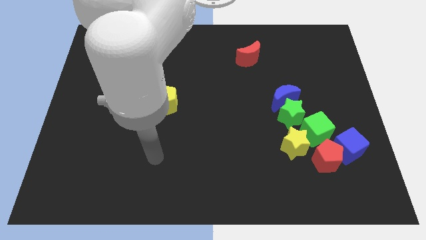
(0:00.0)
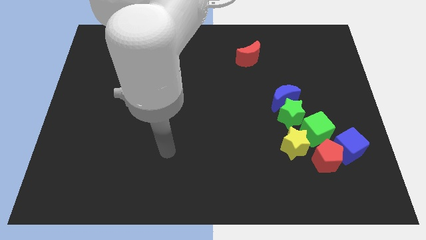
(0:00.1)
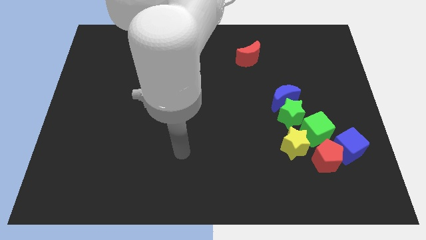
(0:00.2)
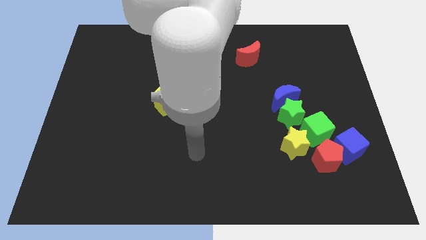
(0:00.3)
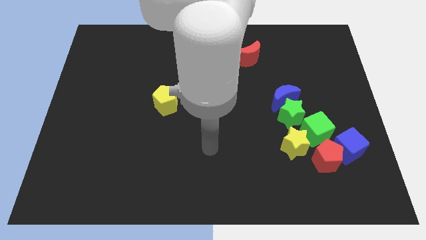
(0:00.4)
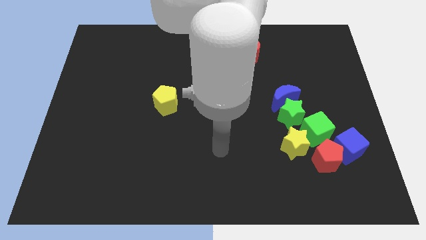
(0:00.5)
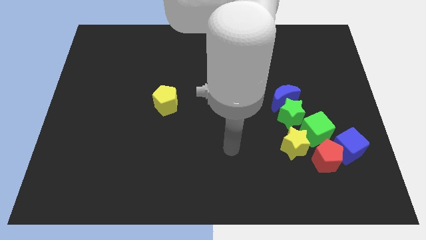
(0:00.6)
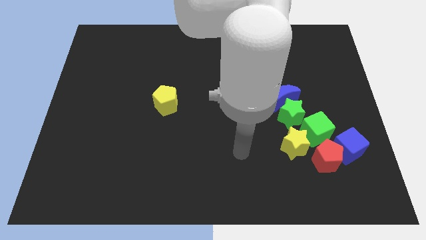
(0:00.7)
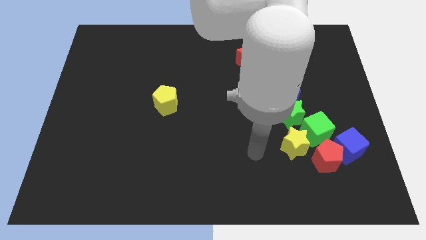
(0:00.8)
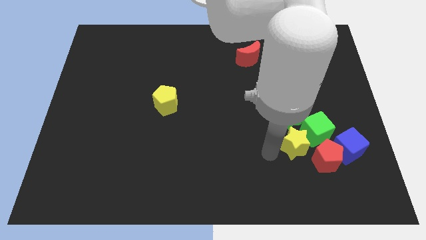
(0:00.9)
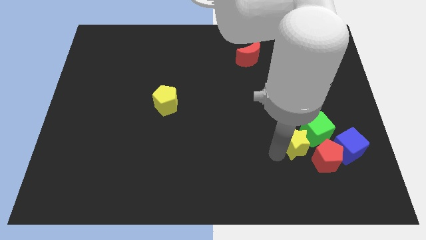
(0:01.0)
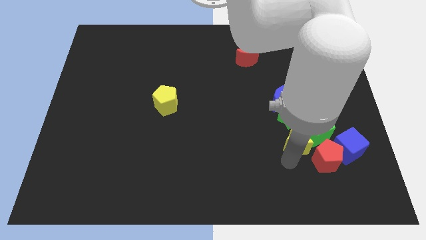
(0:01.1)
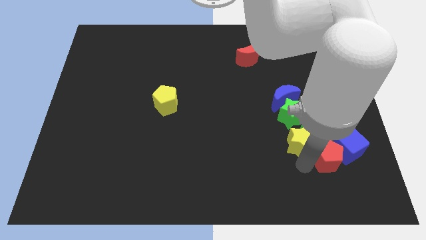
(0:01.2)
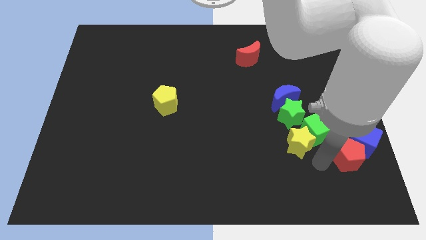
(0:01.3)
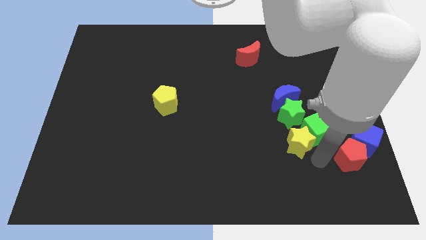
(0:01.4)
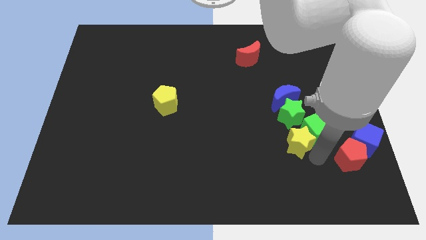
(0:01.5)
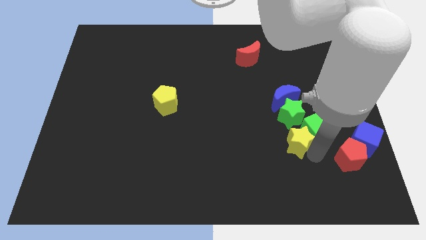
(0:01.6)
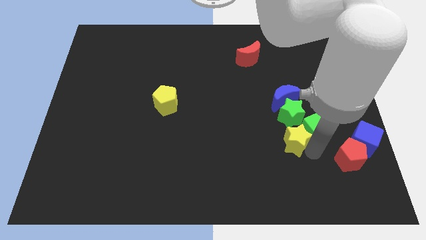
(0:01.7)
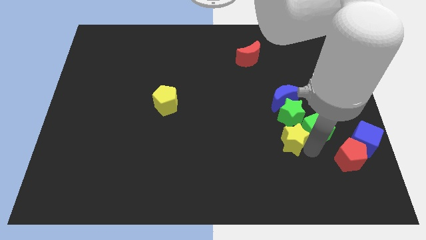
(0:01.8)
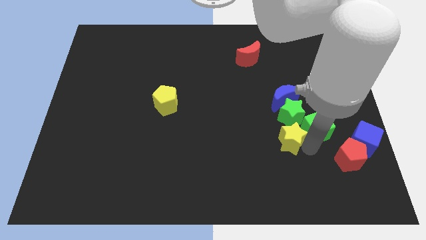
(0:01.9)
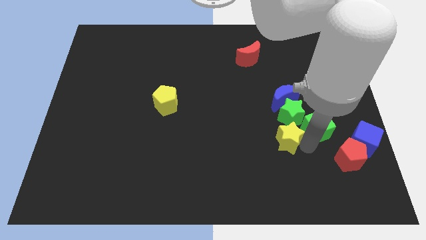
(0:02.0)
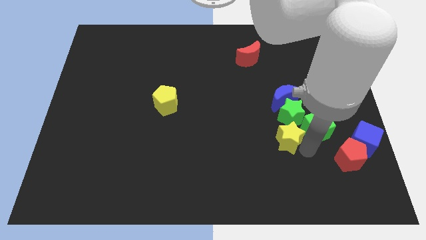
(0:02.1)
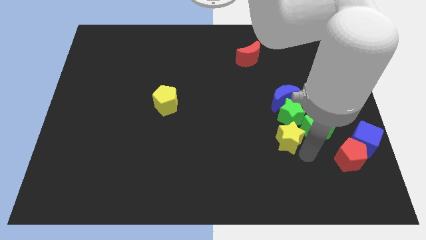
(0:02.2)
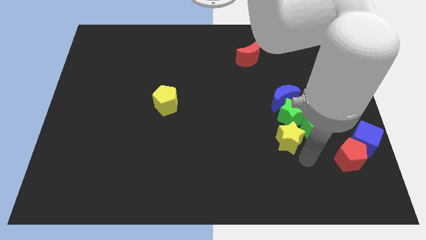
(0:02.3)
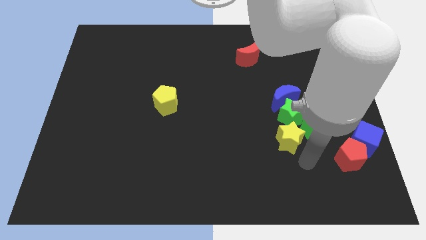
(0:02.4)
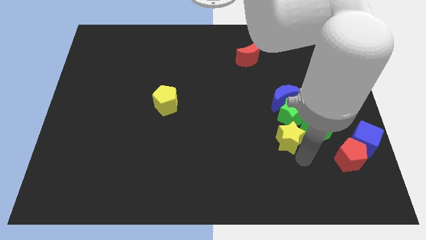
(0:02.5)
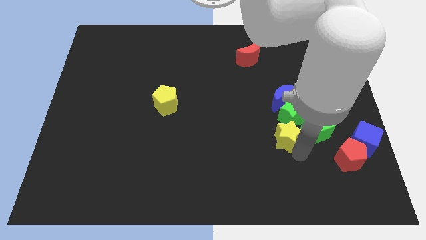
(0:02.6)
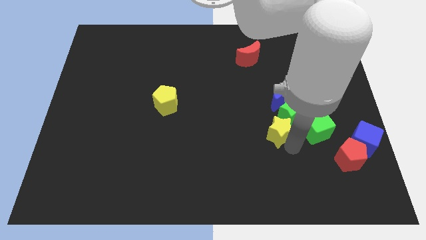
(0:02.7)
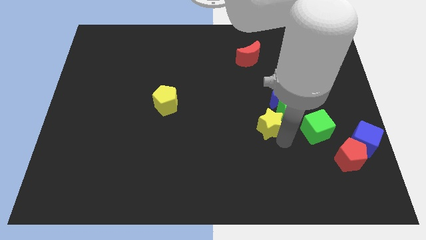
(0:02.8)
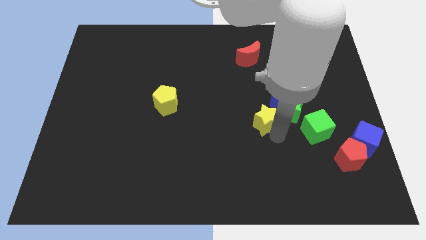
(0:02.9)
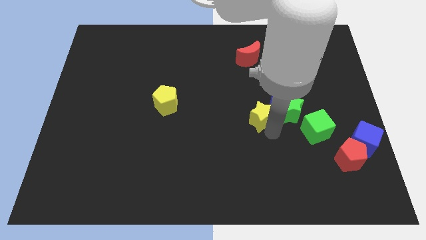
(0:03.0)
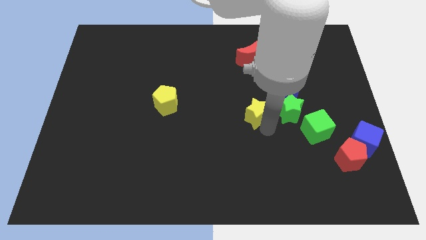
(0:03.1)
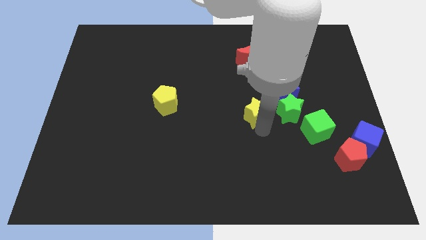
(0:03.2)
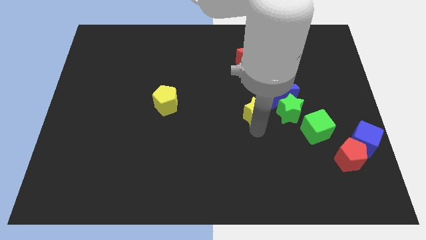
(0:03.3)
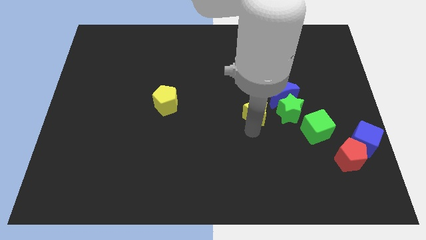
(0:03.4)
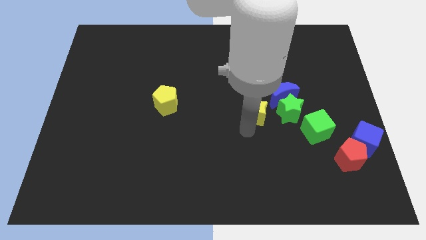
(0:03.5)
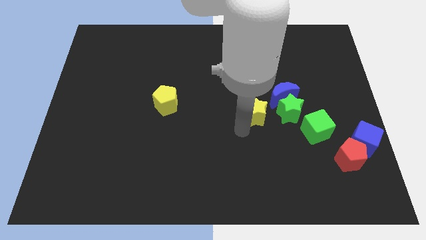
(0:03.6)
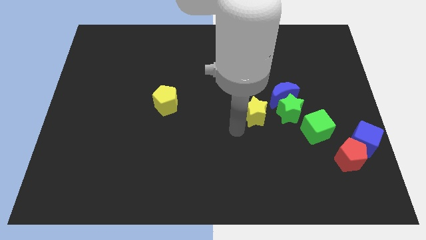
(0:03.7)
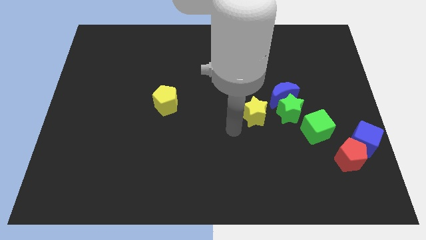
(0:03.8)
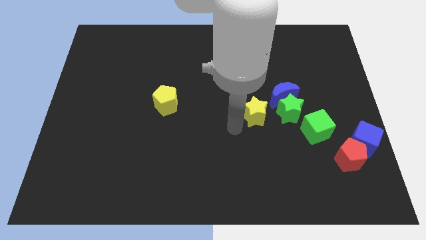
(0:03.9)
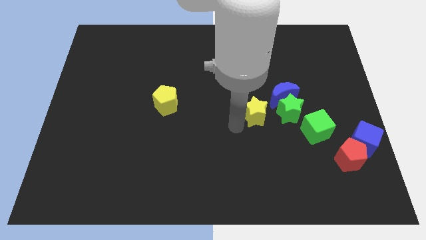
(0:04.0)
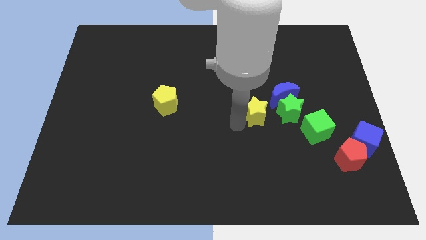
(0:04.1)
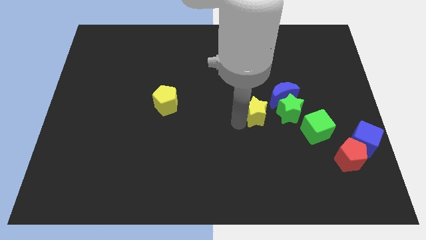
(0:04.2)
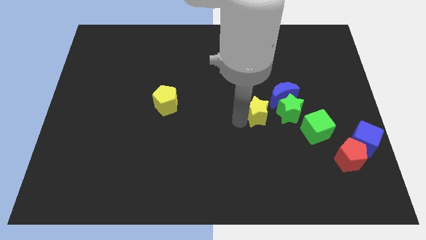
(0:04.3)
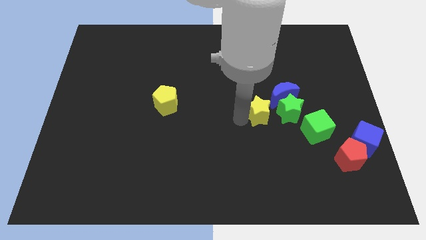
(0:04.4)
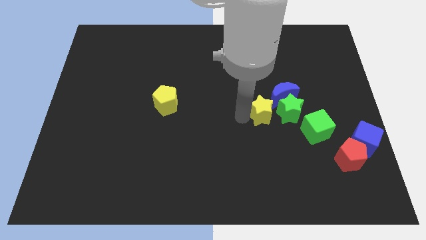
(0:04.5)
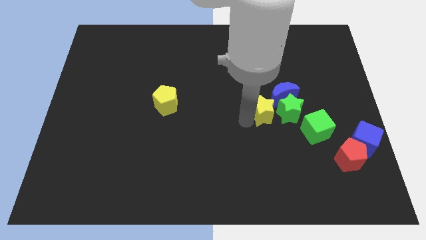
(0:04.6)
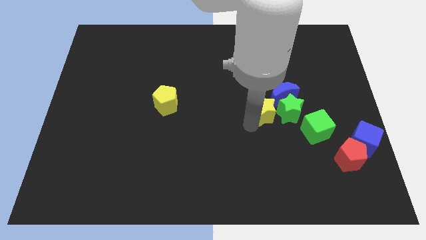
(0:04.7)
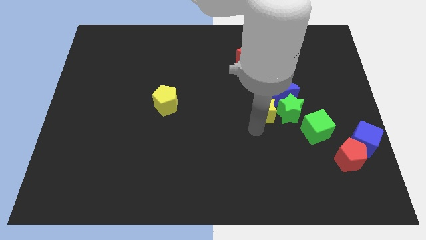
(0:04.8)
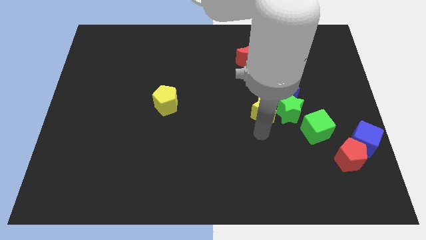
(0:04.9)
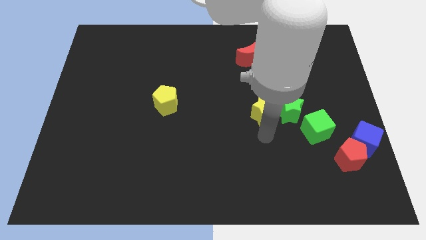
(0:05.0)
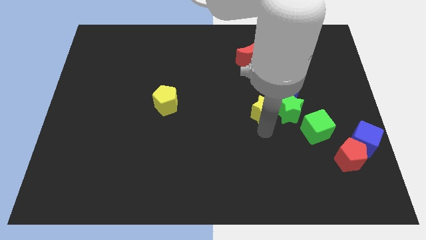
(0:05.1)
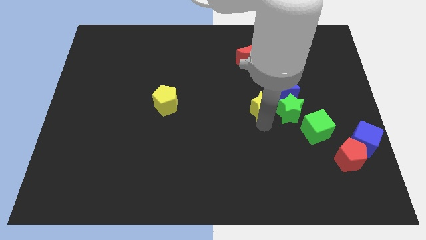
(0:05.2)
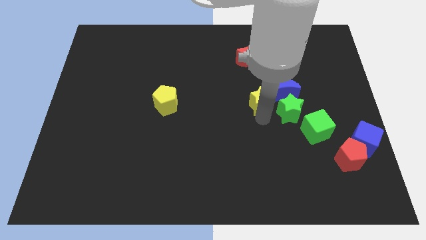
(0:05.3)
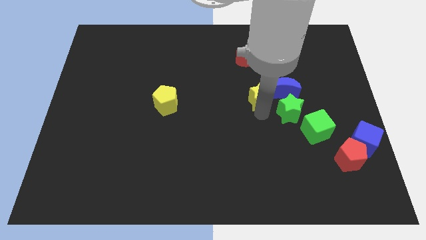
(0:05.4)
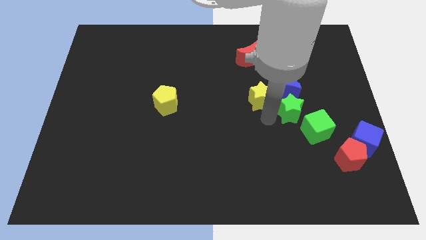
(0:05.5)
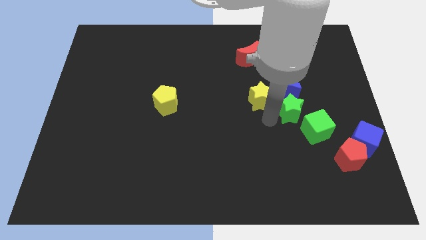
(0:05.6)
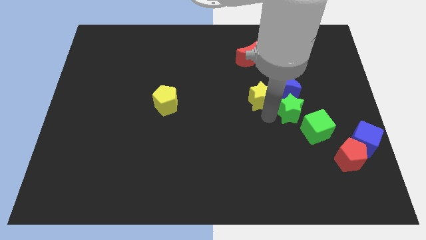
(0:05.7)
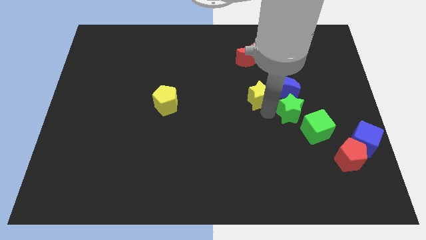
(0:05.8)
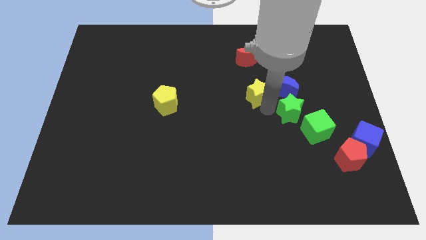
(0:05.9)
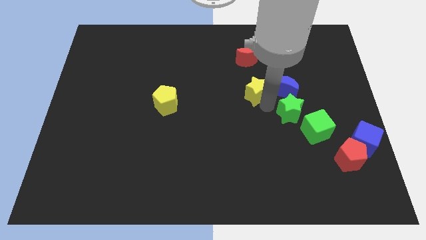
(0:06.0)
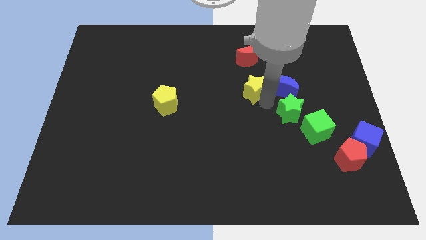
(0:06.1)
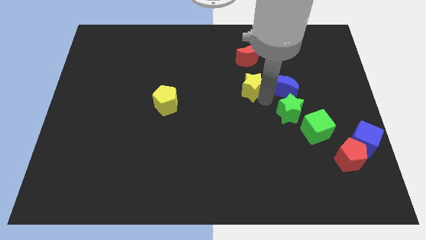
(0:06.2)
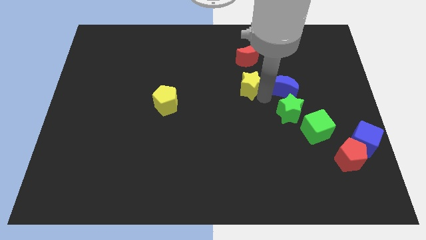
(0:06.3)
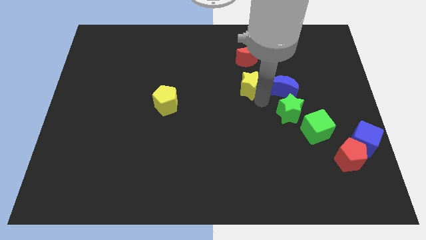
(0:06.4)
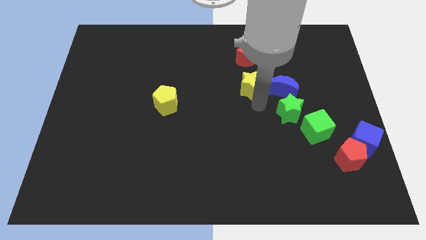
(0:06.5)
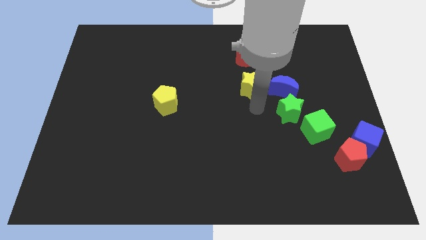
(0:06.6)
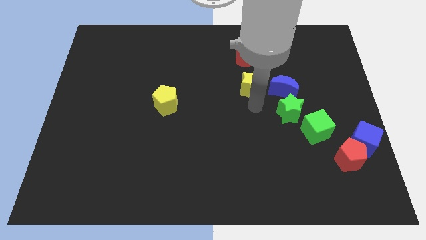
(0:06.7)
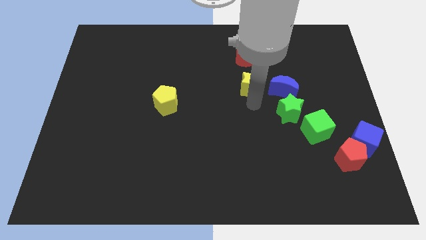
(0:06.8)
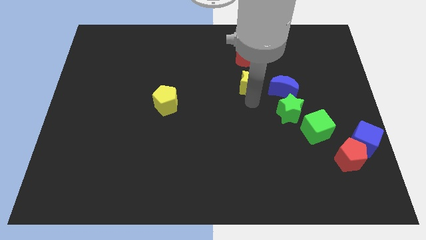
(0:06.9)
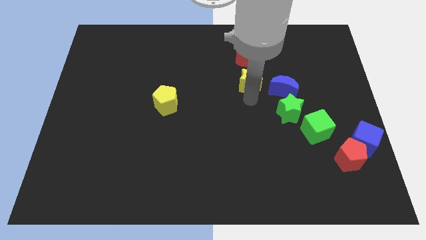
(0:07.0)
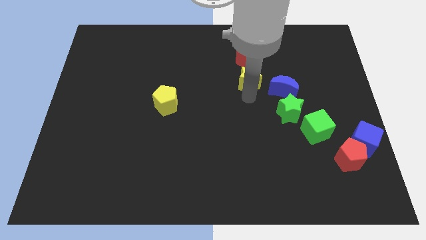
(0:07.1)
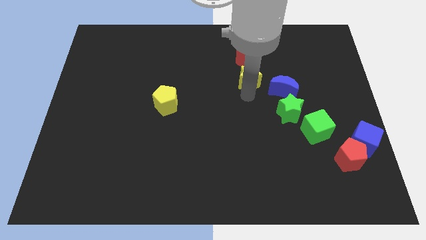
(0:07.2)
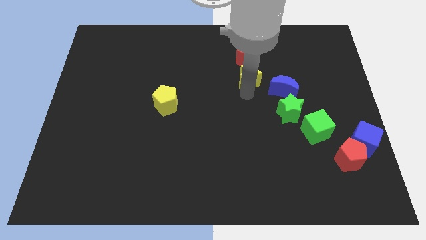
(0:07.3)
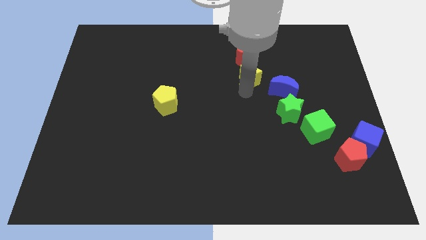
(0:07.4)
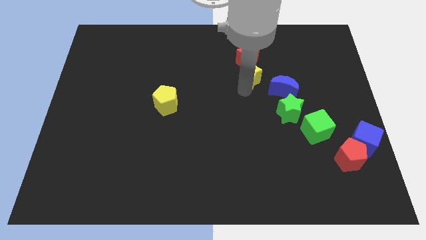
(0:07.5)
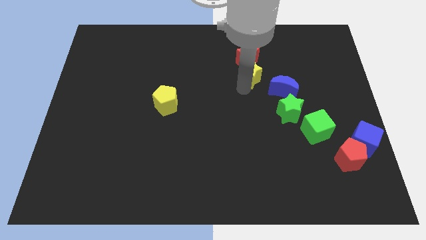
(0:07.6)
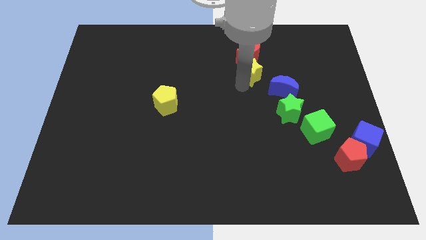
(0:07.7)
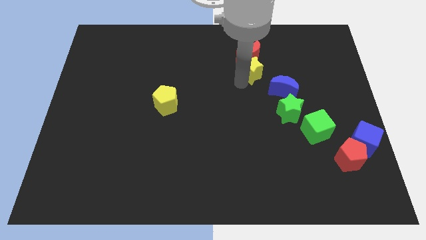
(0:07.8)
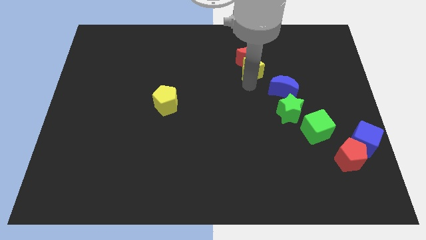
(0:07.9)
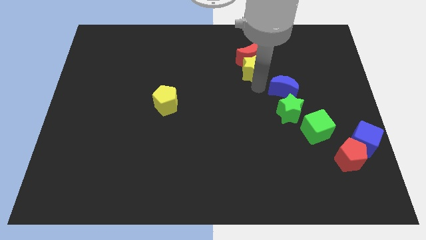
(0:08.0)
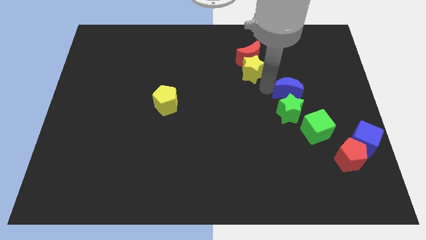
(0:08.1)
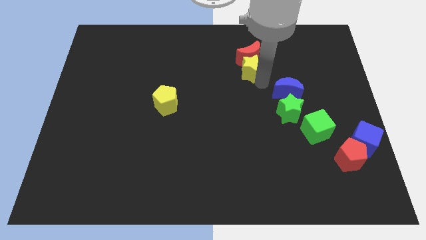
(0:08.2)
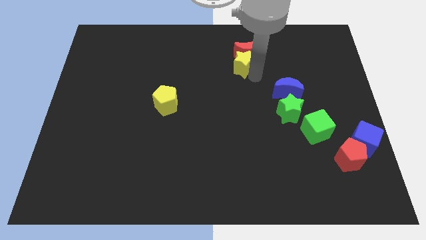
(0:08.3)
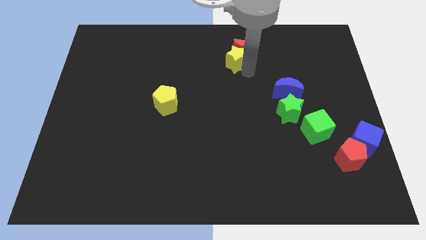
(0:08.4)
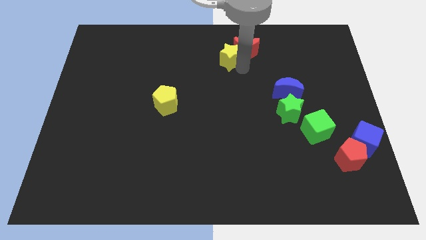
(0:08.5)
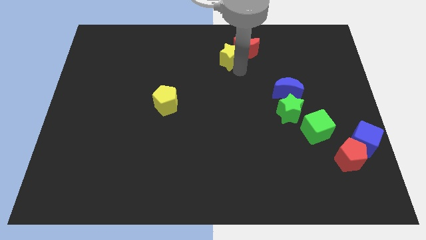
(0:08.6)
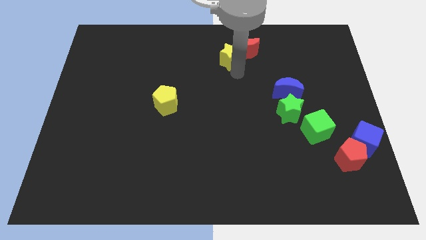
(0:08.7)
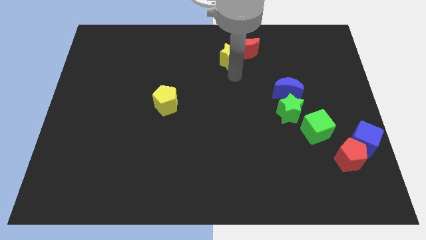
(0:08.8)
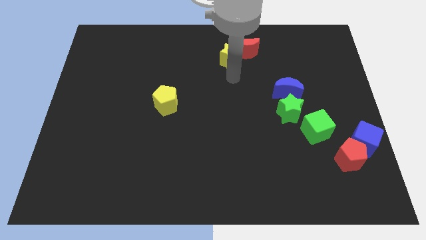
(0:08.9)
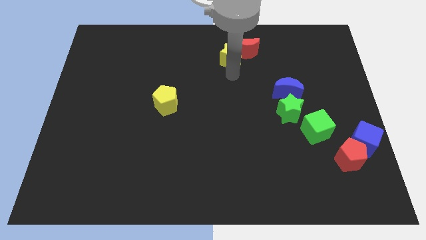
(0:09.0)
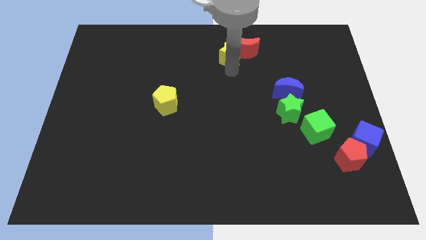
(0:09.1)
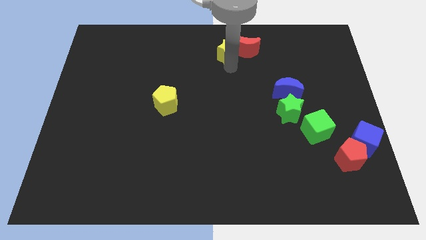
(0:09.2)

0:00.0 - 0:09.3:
move the yellow star to the top
